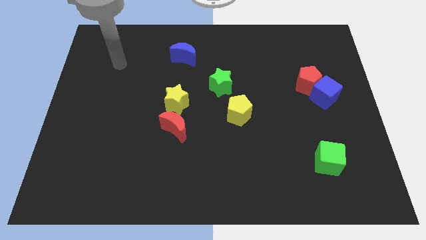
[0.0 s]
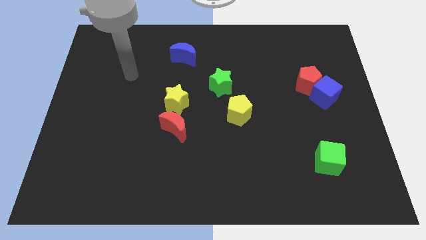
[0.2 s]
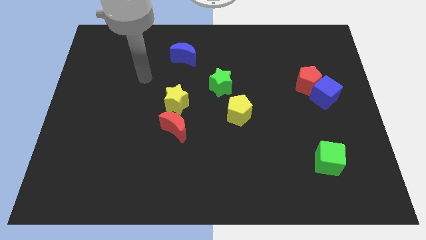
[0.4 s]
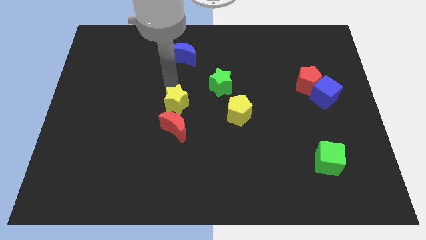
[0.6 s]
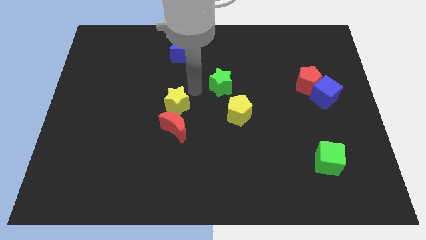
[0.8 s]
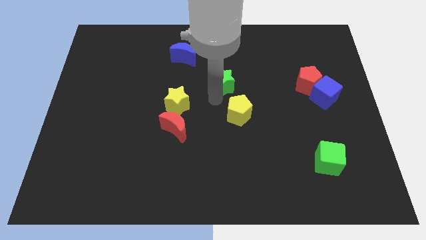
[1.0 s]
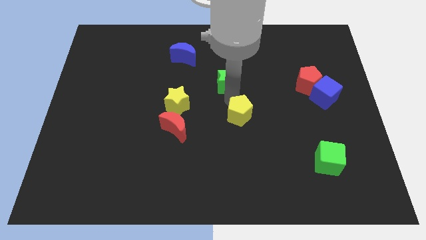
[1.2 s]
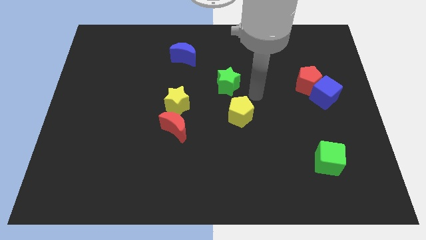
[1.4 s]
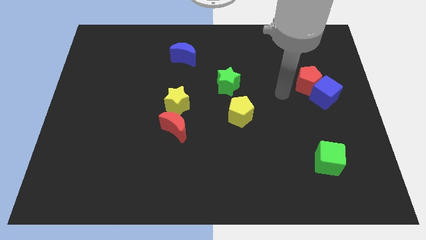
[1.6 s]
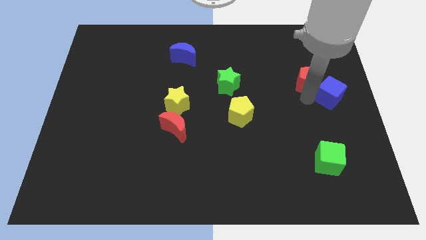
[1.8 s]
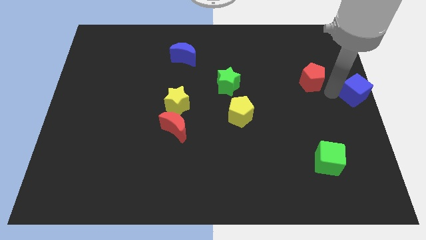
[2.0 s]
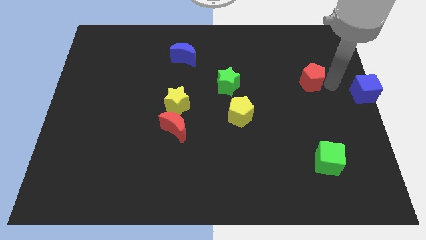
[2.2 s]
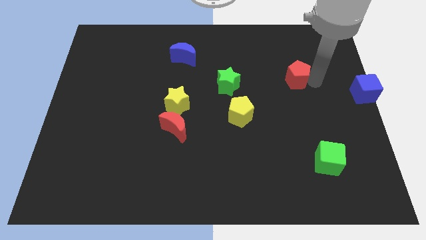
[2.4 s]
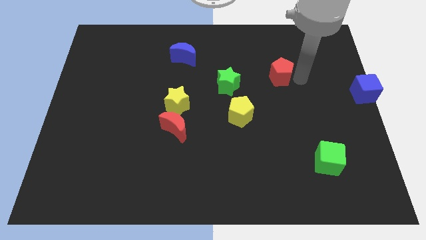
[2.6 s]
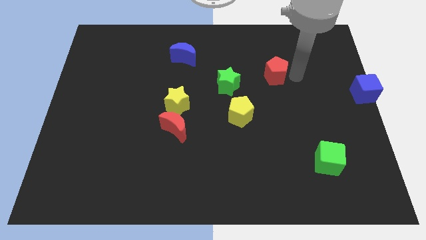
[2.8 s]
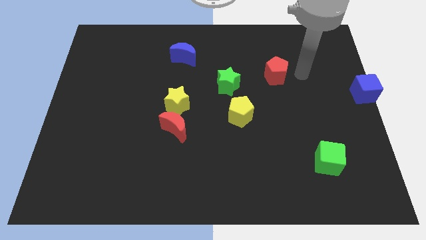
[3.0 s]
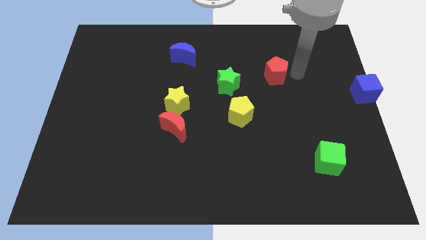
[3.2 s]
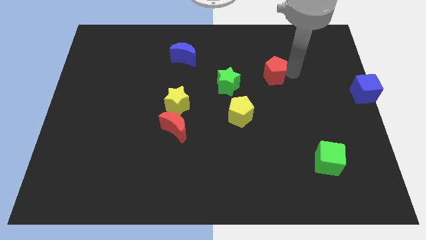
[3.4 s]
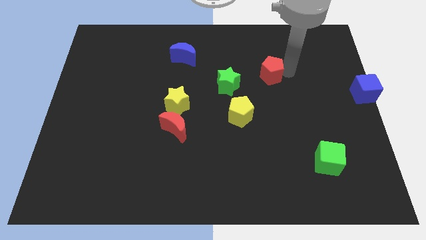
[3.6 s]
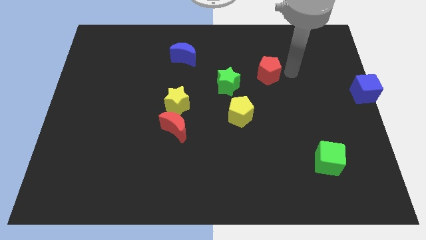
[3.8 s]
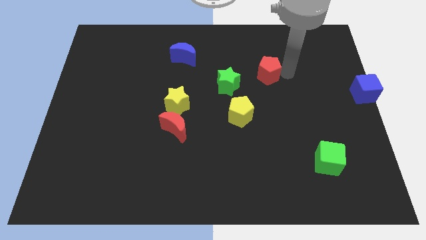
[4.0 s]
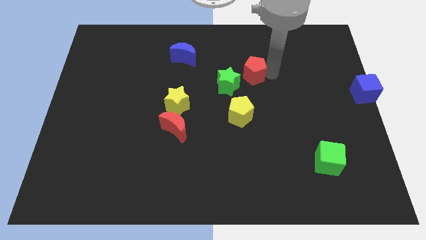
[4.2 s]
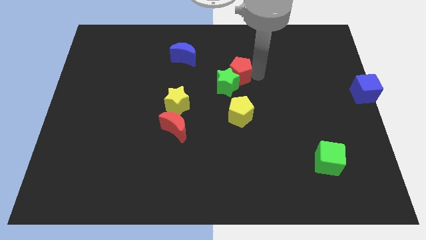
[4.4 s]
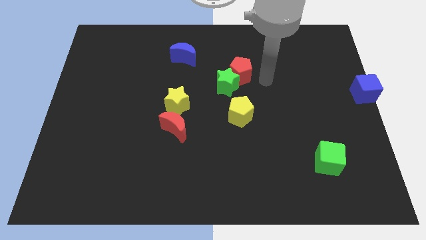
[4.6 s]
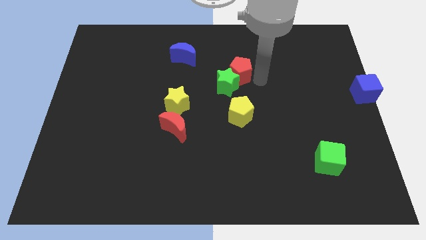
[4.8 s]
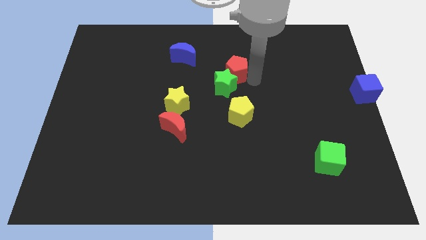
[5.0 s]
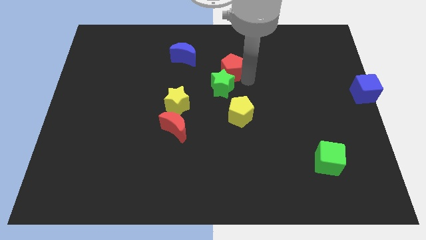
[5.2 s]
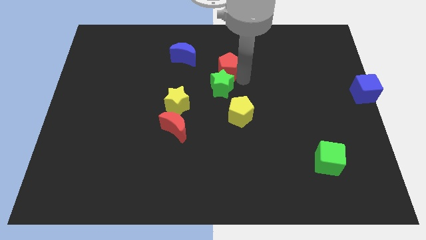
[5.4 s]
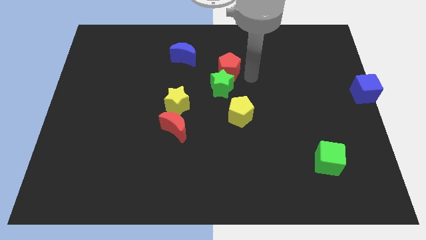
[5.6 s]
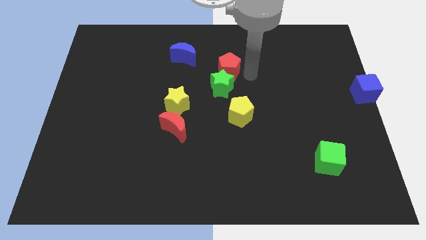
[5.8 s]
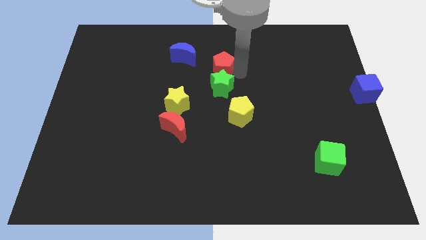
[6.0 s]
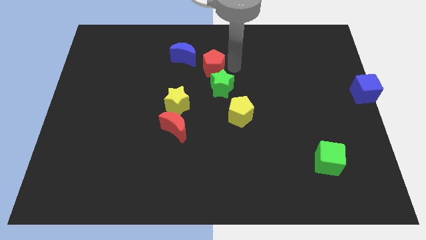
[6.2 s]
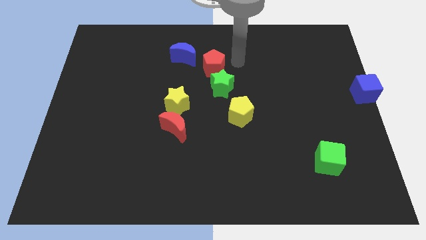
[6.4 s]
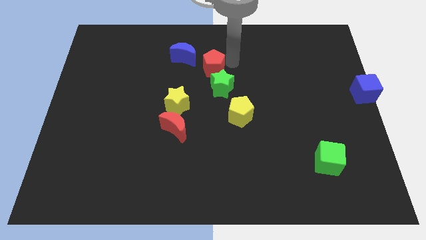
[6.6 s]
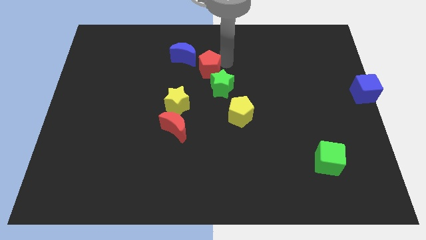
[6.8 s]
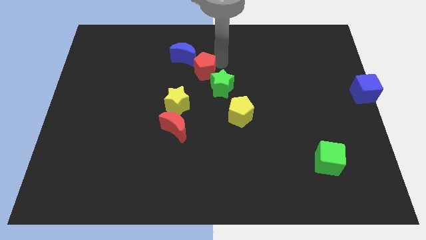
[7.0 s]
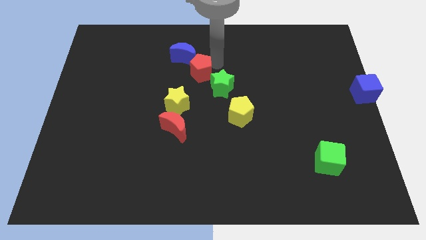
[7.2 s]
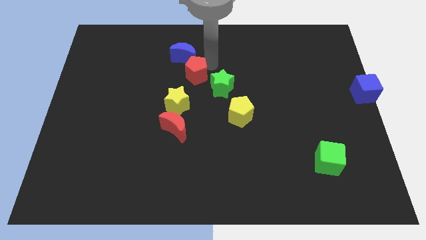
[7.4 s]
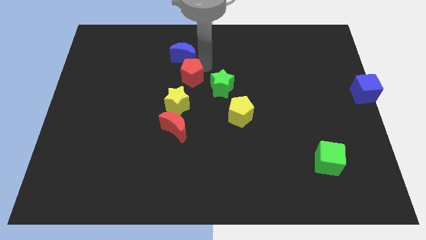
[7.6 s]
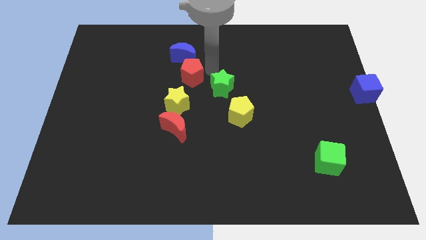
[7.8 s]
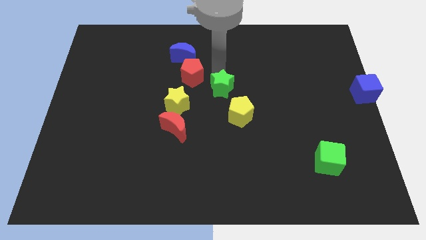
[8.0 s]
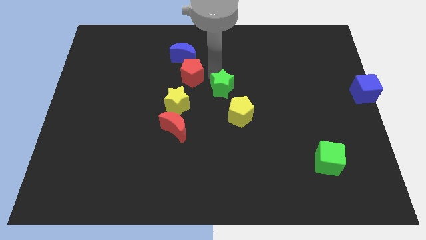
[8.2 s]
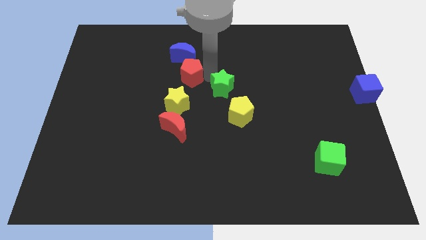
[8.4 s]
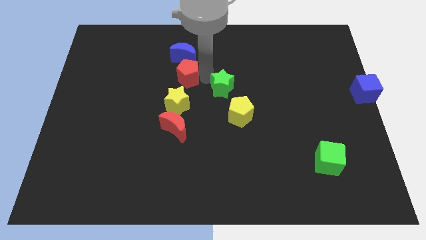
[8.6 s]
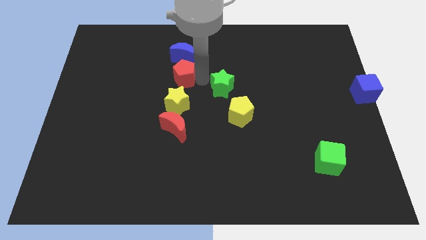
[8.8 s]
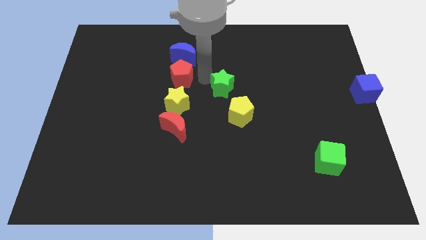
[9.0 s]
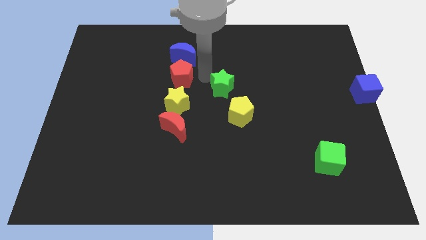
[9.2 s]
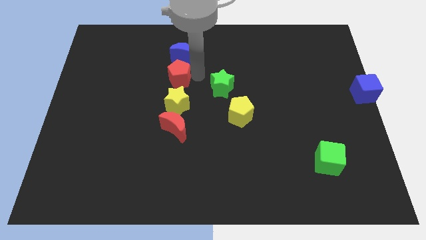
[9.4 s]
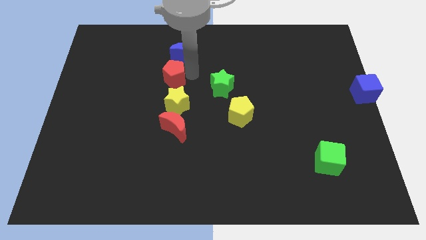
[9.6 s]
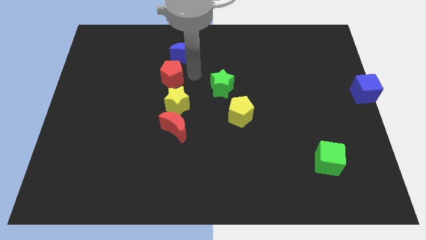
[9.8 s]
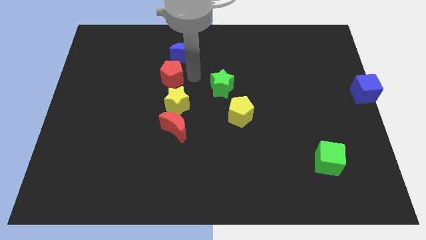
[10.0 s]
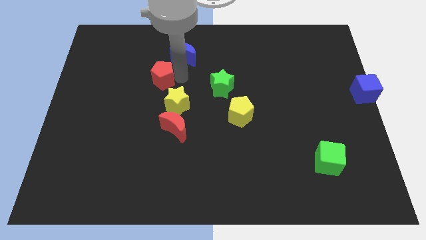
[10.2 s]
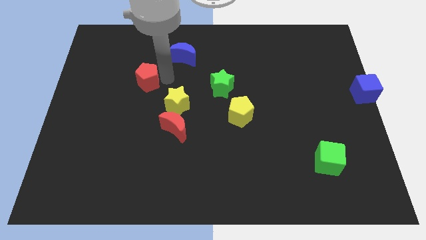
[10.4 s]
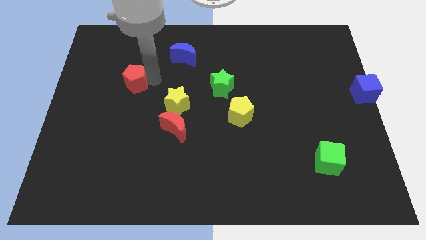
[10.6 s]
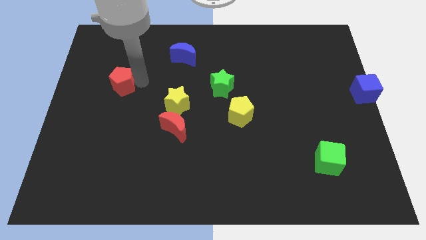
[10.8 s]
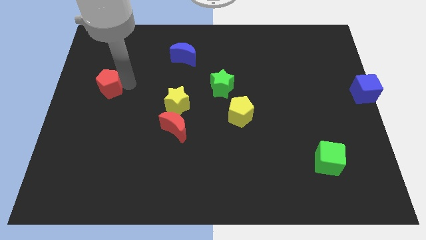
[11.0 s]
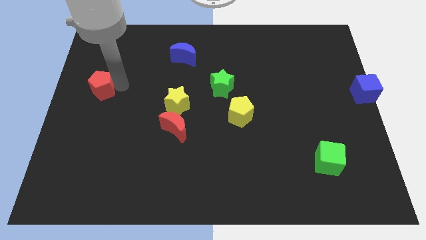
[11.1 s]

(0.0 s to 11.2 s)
put the red pentagon to the center left
